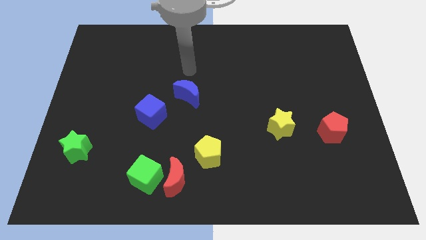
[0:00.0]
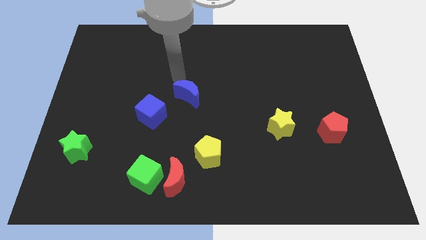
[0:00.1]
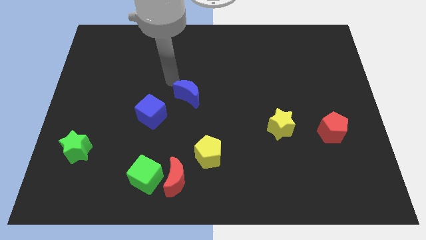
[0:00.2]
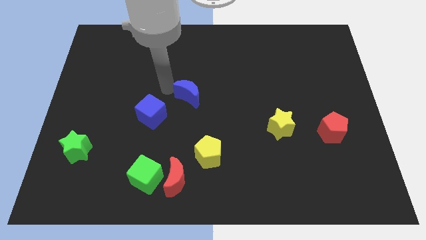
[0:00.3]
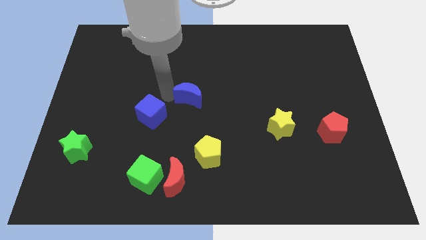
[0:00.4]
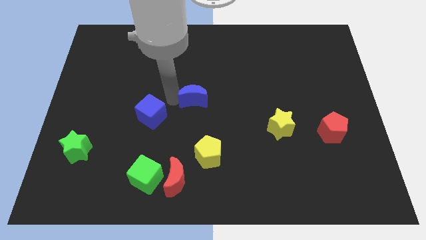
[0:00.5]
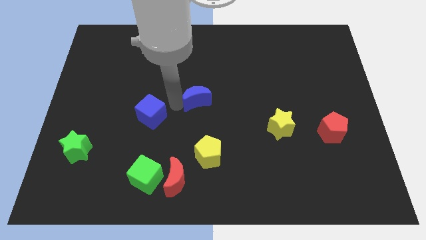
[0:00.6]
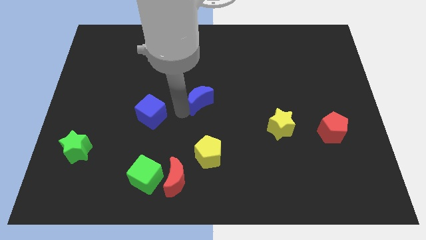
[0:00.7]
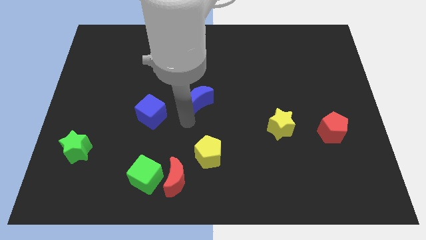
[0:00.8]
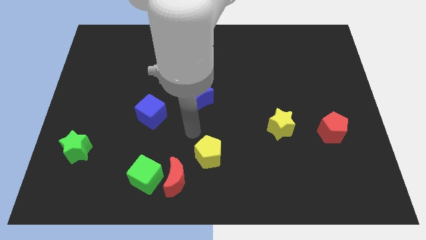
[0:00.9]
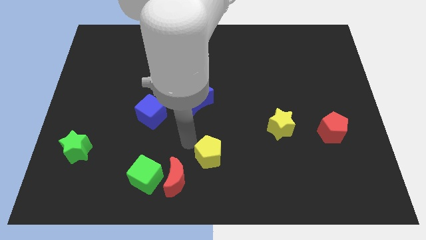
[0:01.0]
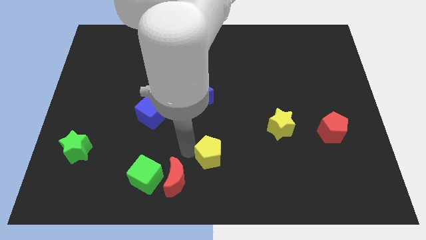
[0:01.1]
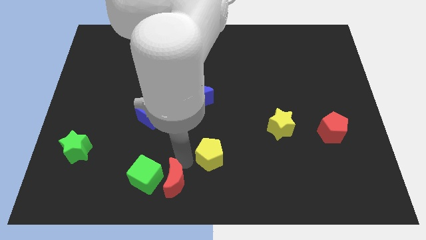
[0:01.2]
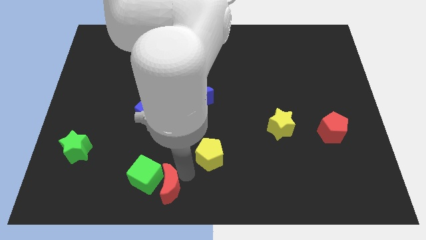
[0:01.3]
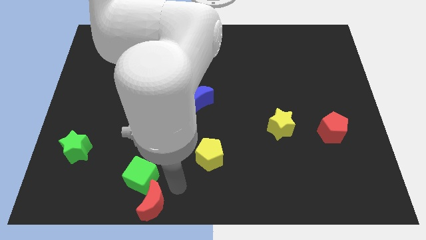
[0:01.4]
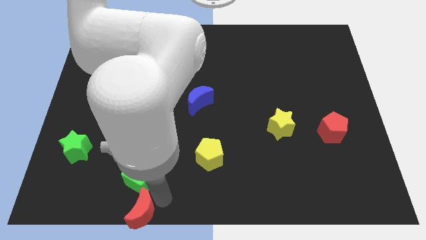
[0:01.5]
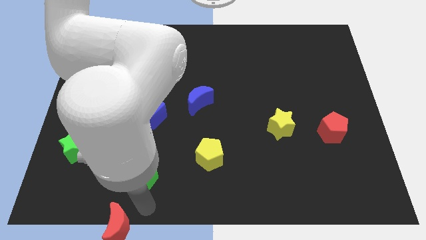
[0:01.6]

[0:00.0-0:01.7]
move the green cube away from the red moon

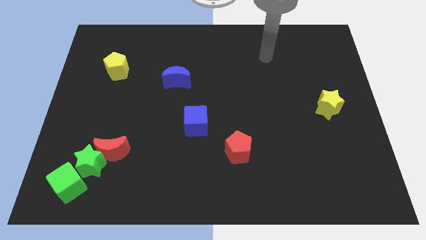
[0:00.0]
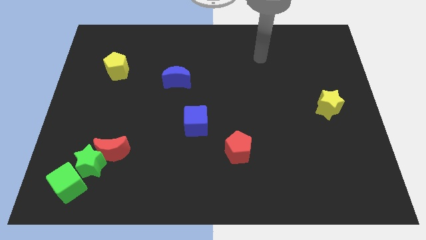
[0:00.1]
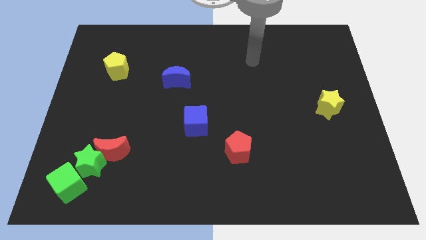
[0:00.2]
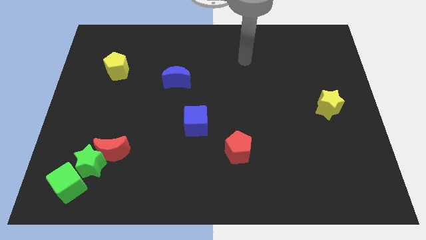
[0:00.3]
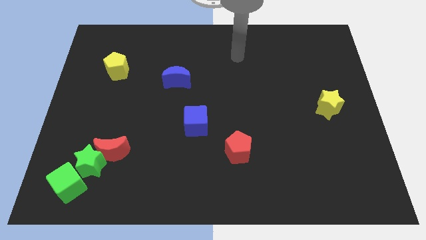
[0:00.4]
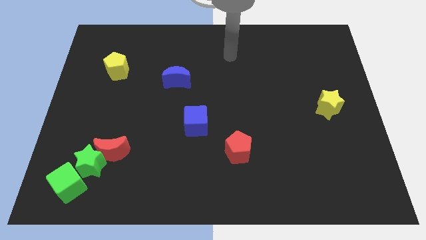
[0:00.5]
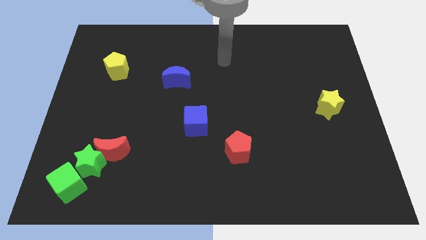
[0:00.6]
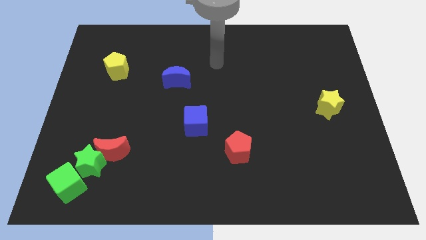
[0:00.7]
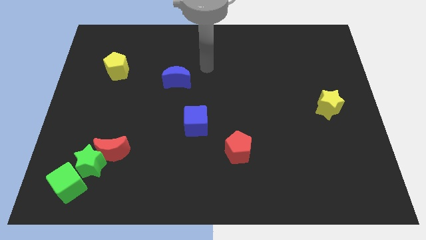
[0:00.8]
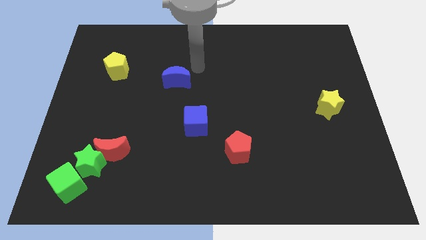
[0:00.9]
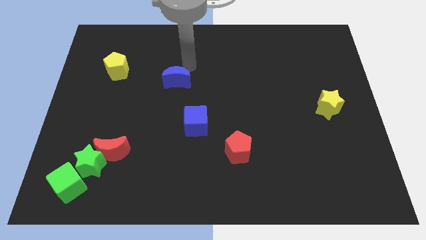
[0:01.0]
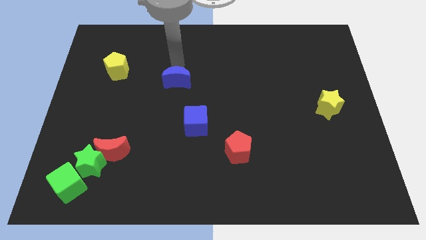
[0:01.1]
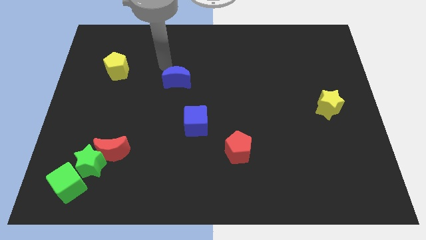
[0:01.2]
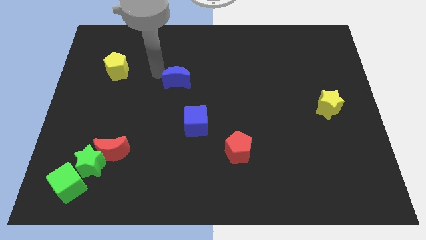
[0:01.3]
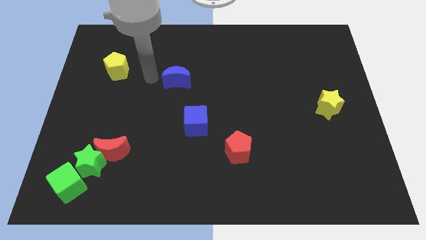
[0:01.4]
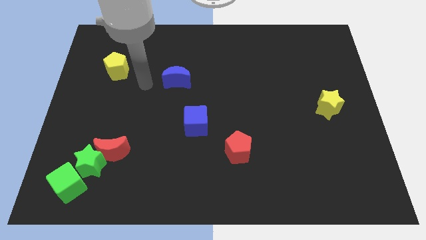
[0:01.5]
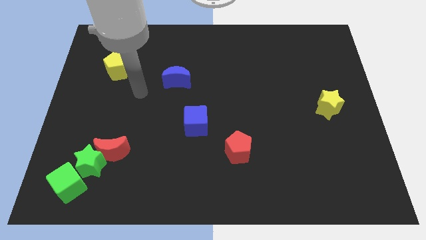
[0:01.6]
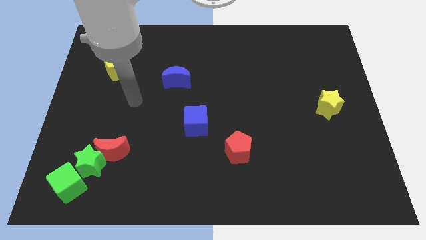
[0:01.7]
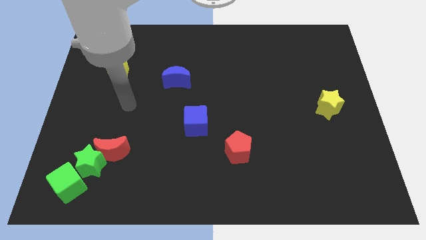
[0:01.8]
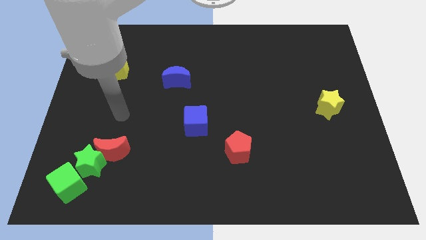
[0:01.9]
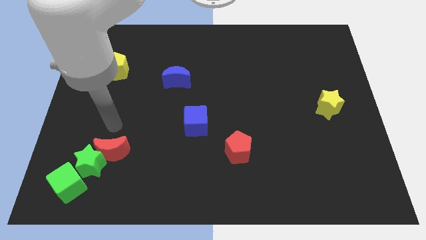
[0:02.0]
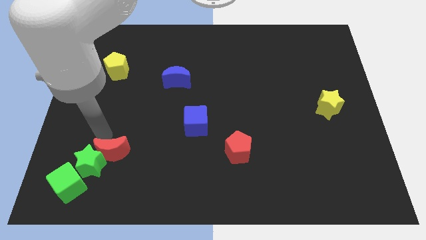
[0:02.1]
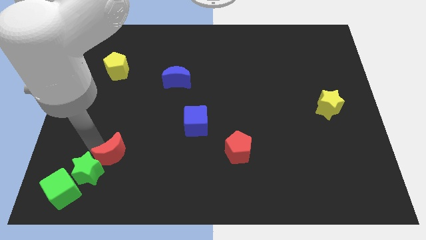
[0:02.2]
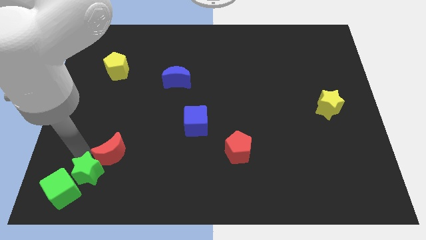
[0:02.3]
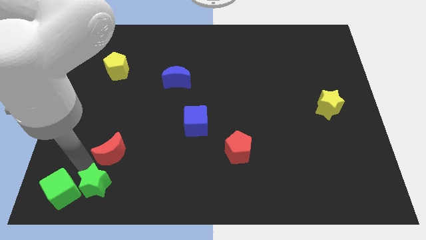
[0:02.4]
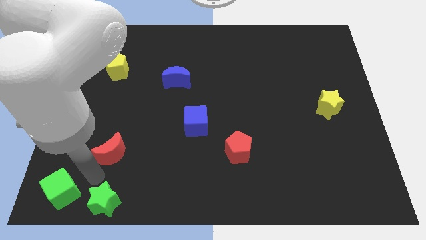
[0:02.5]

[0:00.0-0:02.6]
separate the red moon from the green star

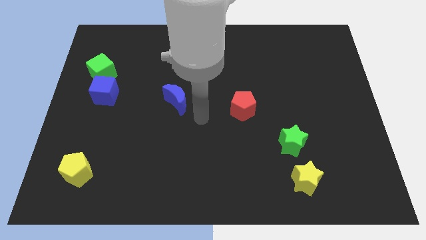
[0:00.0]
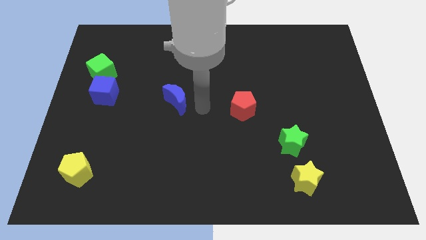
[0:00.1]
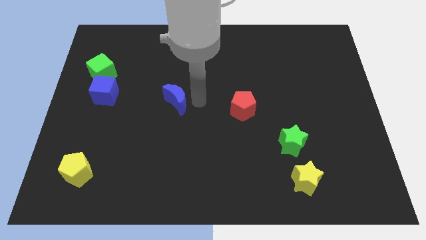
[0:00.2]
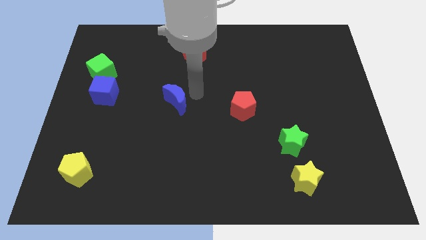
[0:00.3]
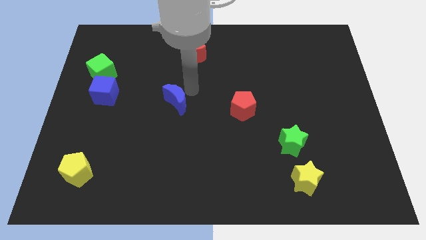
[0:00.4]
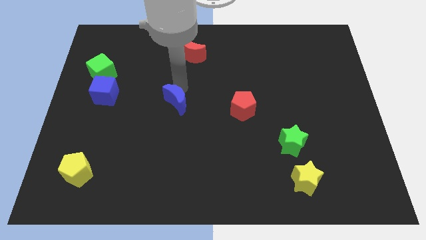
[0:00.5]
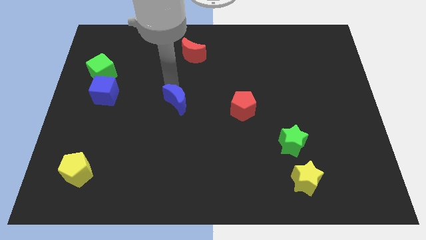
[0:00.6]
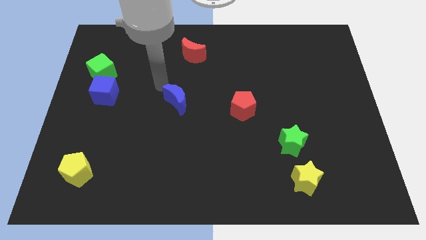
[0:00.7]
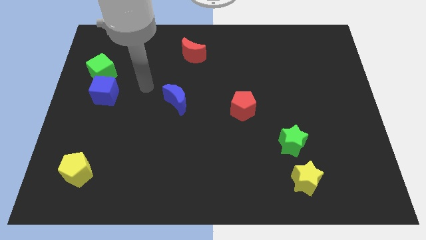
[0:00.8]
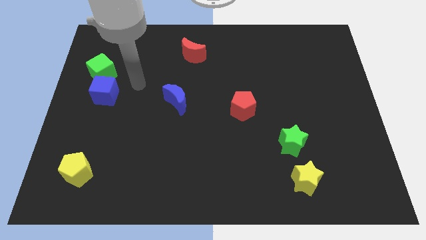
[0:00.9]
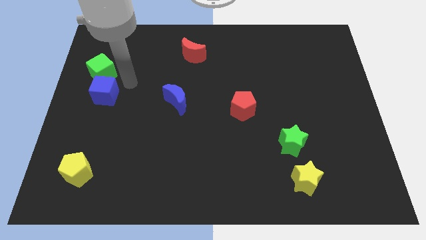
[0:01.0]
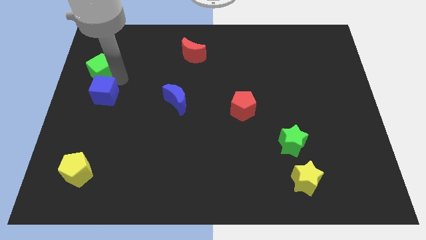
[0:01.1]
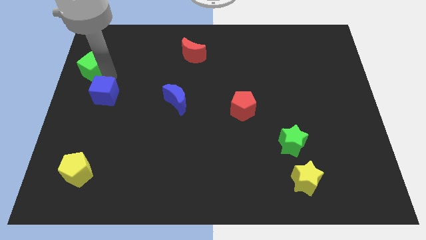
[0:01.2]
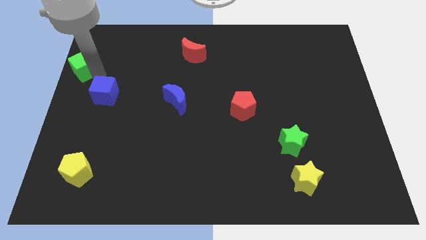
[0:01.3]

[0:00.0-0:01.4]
separate the blue cube from the green cube

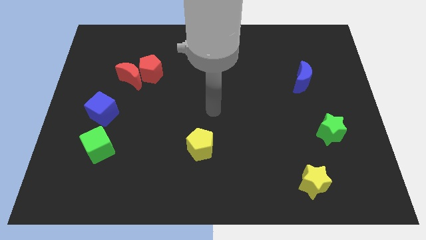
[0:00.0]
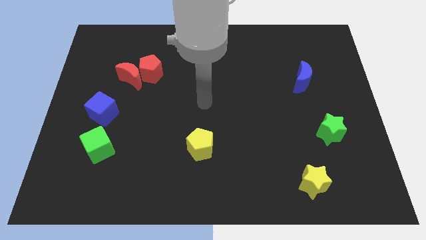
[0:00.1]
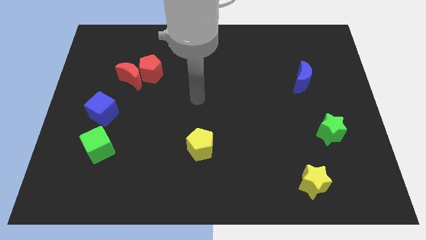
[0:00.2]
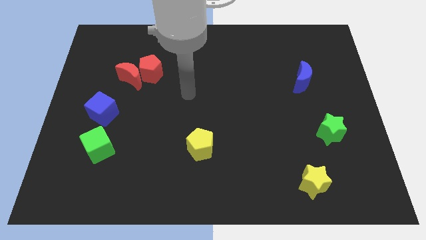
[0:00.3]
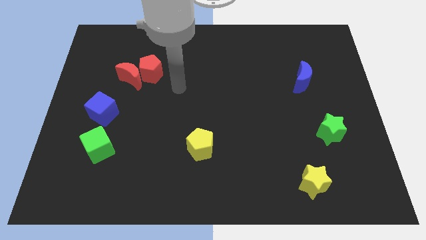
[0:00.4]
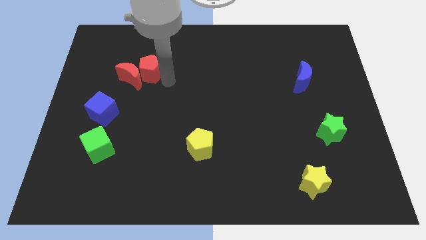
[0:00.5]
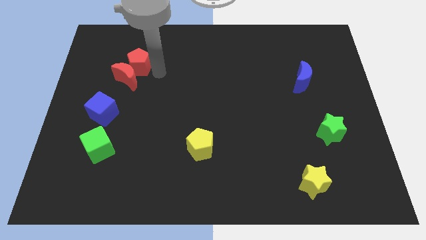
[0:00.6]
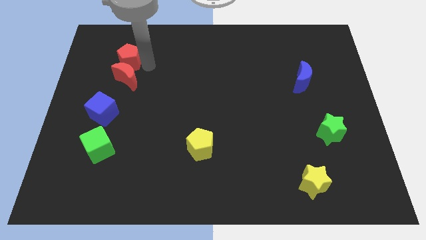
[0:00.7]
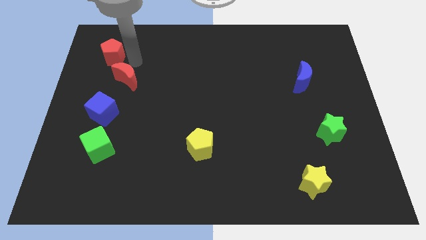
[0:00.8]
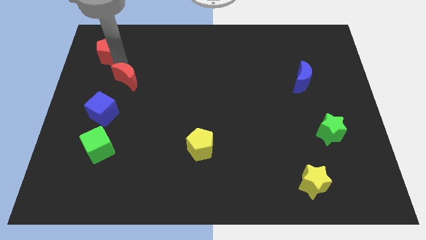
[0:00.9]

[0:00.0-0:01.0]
separate the red moon from the red pentagon

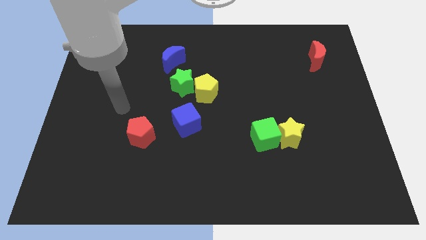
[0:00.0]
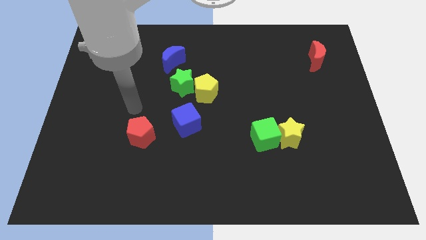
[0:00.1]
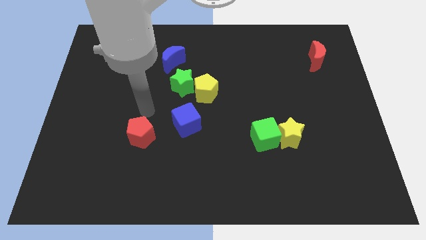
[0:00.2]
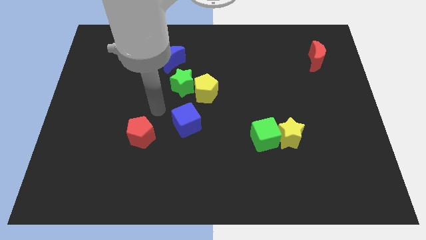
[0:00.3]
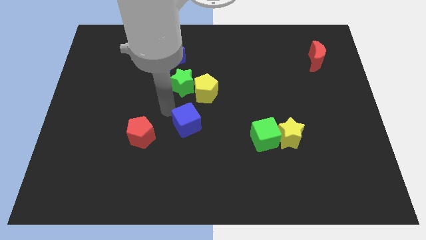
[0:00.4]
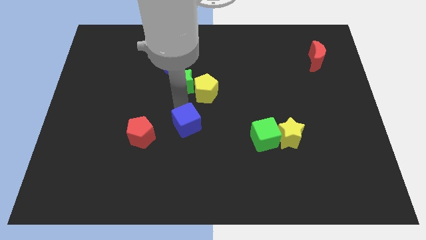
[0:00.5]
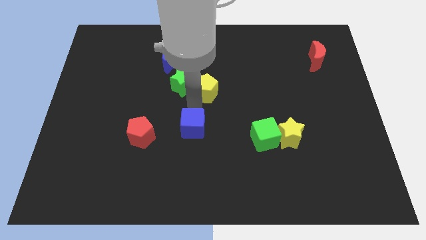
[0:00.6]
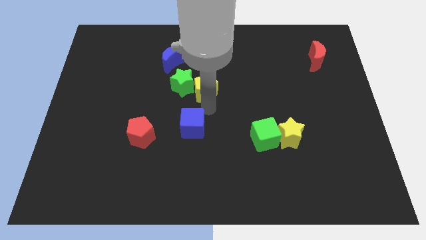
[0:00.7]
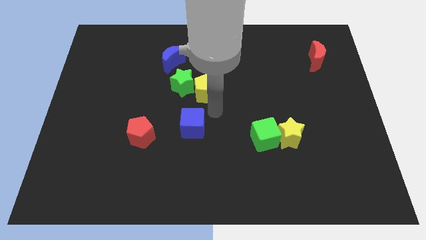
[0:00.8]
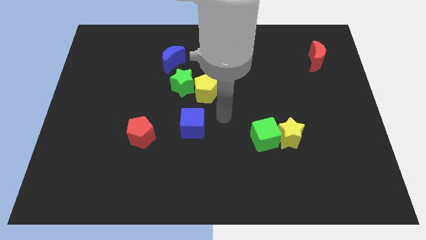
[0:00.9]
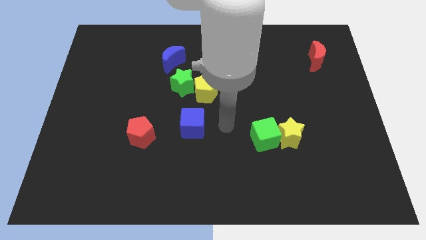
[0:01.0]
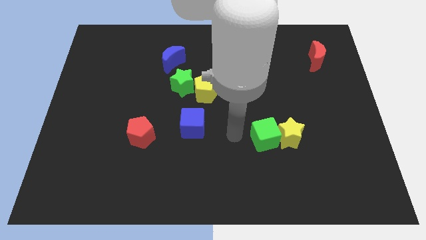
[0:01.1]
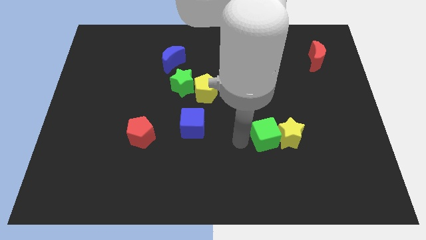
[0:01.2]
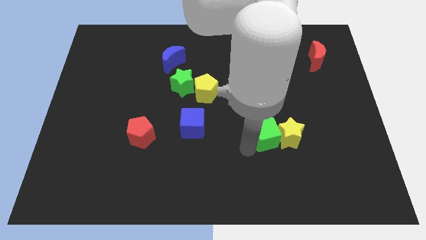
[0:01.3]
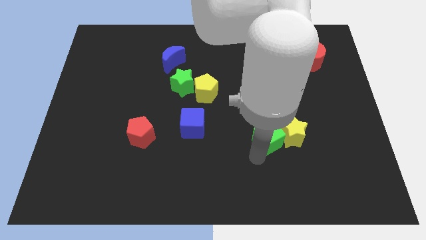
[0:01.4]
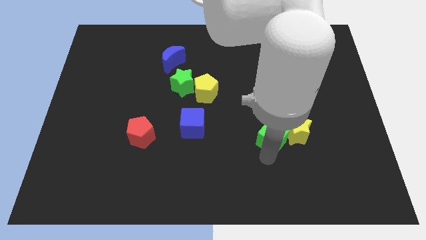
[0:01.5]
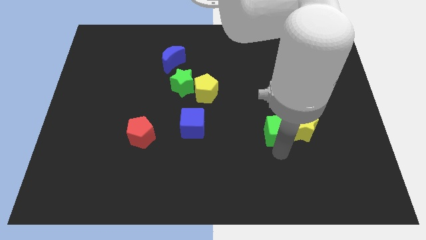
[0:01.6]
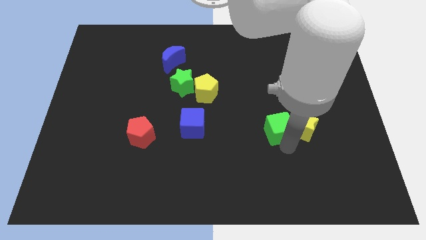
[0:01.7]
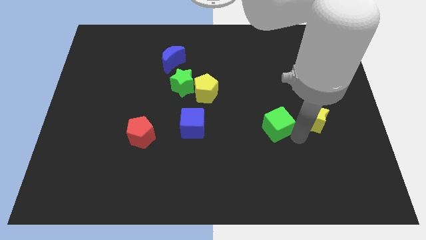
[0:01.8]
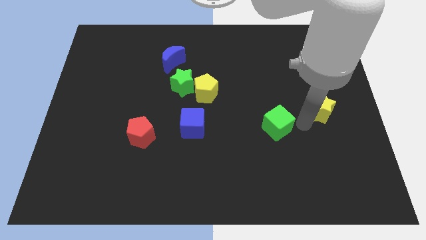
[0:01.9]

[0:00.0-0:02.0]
move the green cube away from the yellow star

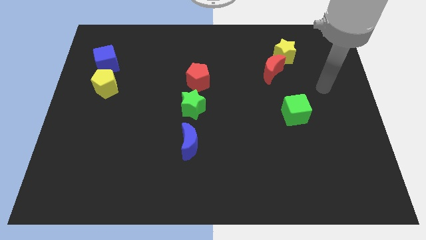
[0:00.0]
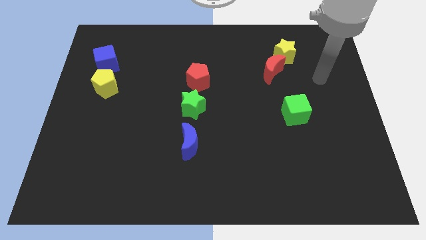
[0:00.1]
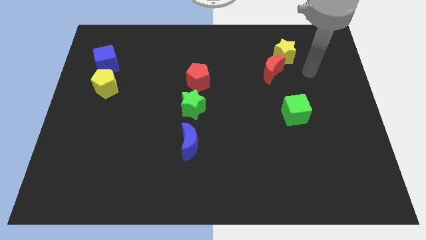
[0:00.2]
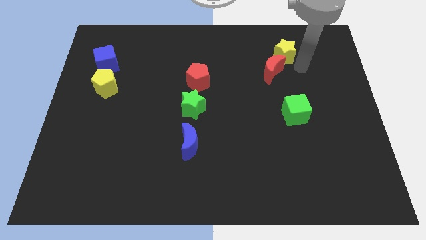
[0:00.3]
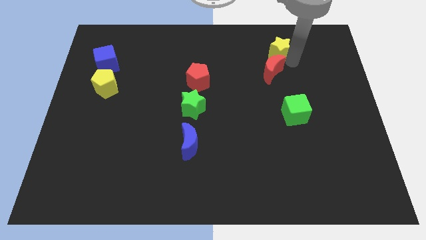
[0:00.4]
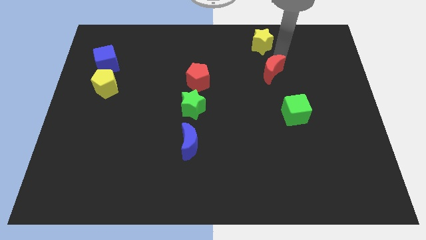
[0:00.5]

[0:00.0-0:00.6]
move the red moon away from the yellow star
